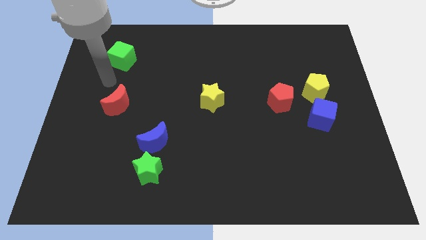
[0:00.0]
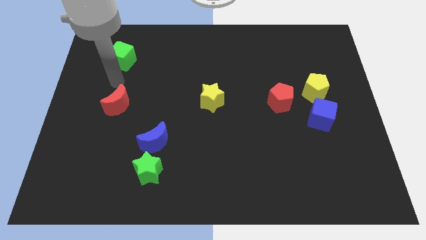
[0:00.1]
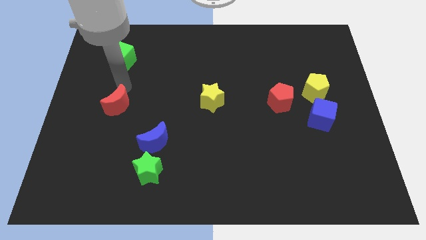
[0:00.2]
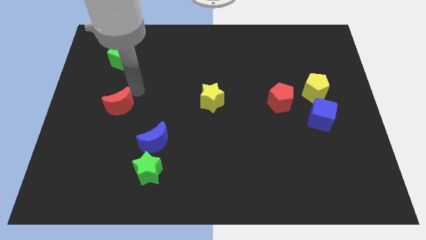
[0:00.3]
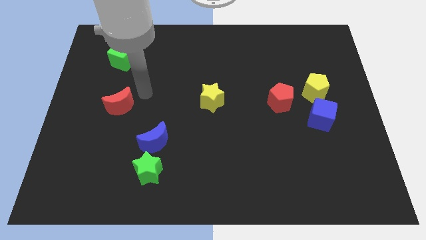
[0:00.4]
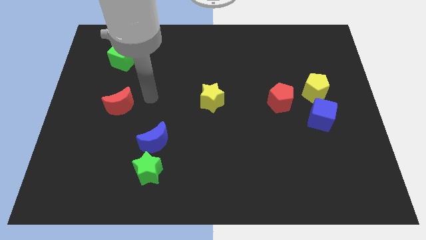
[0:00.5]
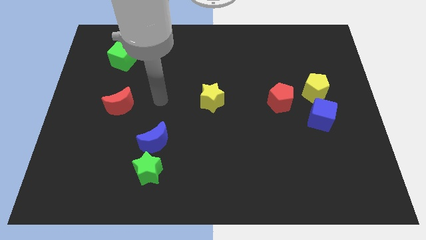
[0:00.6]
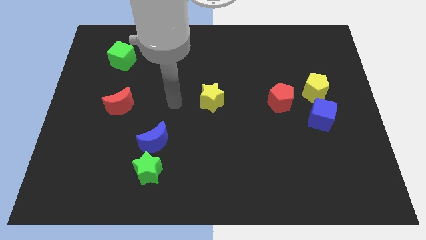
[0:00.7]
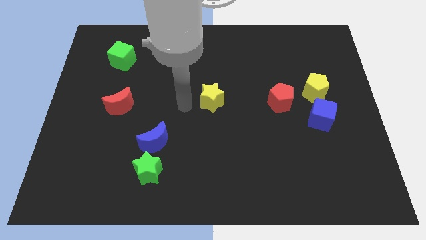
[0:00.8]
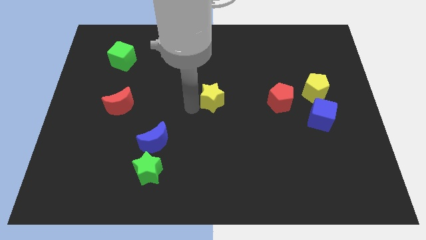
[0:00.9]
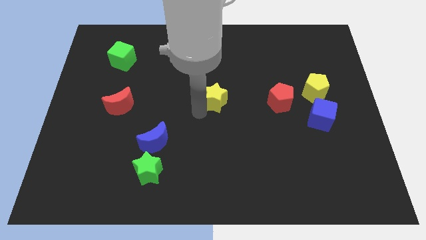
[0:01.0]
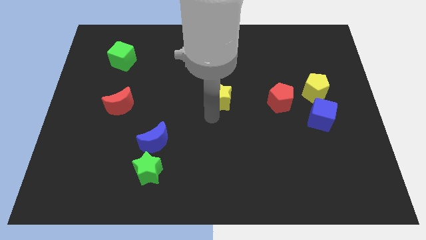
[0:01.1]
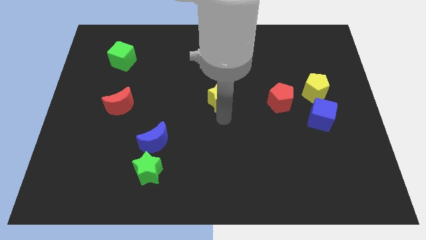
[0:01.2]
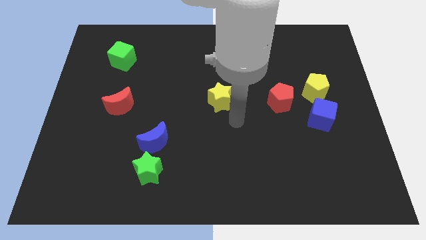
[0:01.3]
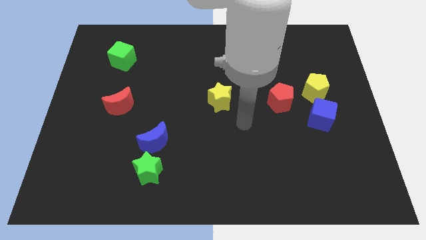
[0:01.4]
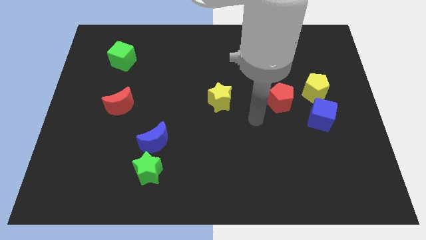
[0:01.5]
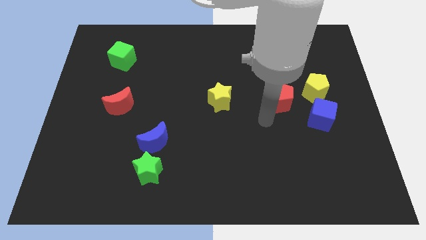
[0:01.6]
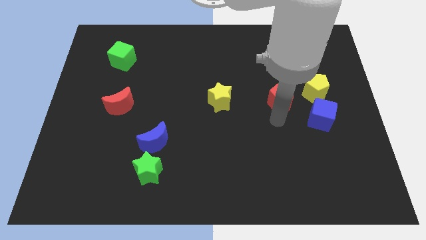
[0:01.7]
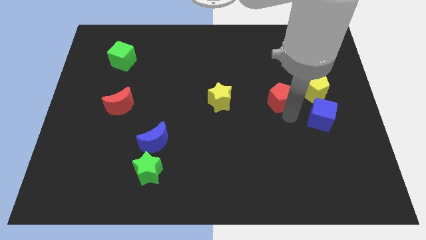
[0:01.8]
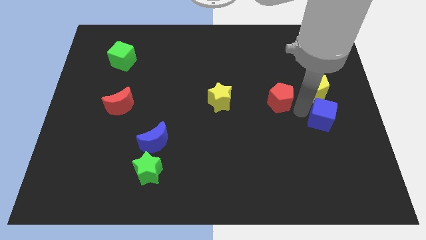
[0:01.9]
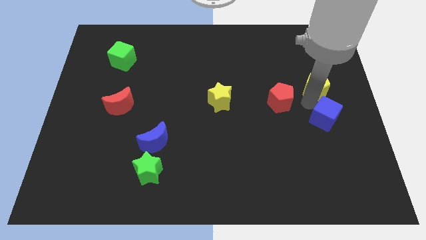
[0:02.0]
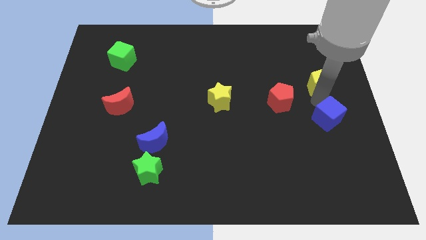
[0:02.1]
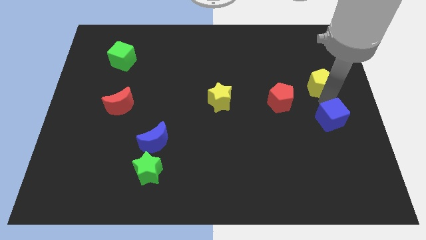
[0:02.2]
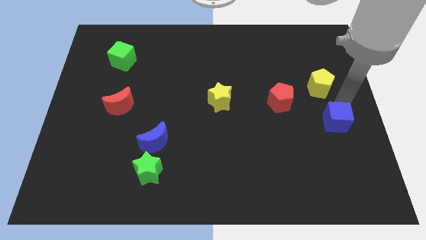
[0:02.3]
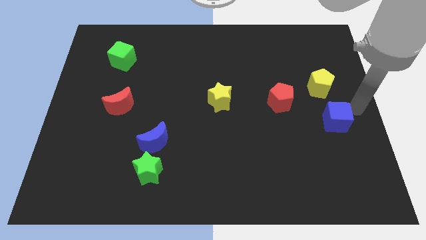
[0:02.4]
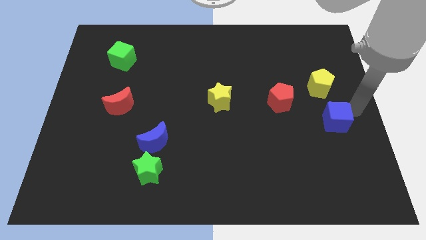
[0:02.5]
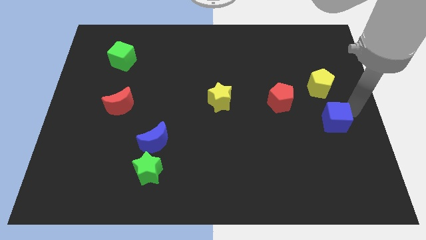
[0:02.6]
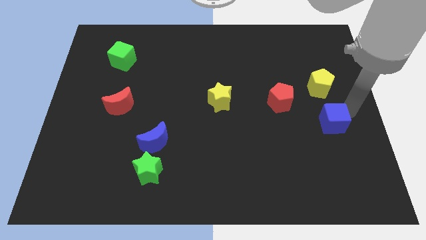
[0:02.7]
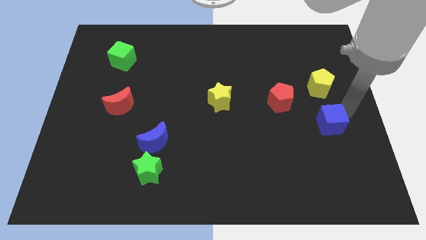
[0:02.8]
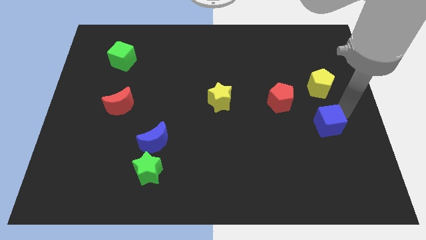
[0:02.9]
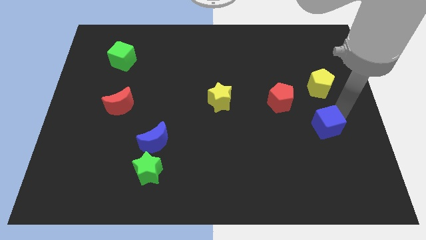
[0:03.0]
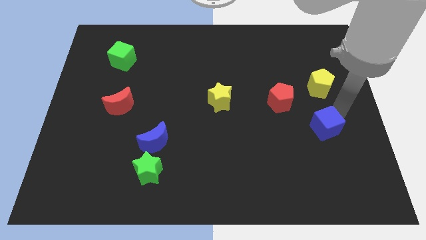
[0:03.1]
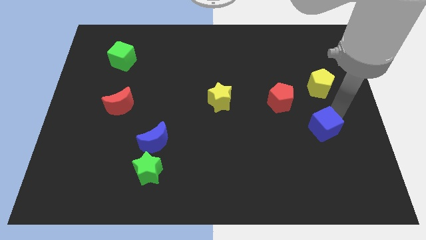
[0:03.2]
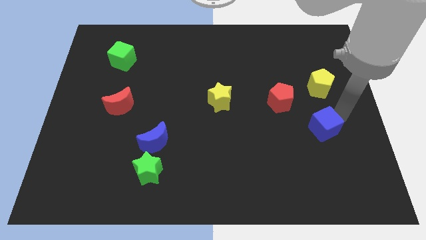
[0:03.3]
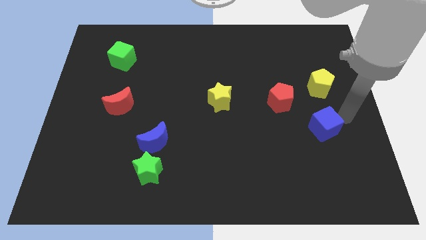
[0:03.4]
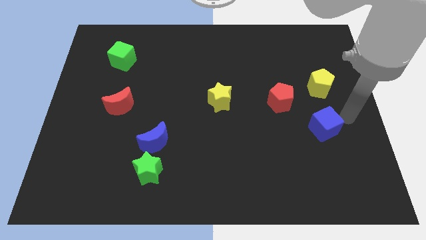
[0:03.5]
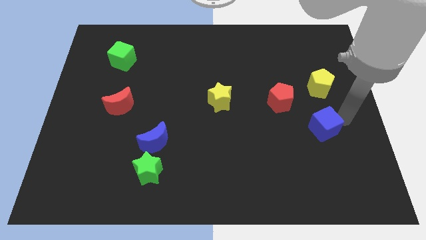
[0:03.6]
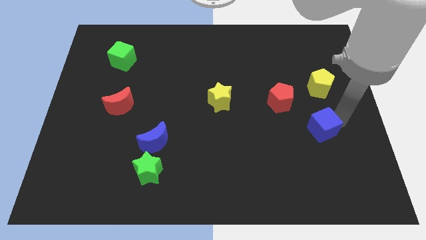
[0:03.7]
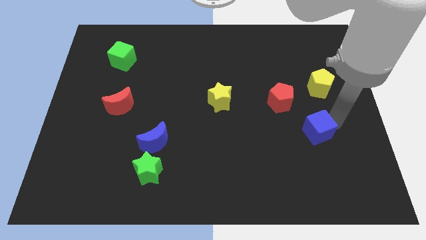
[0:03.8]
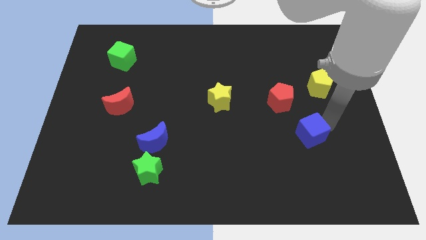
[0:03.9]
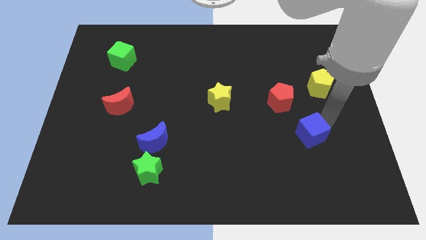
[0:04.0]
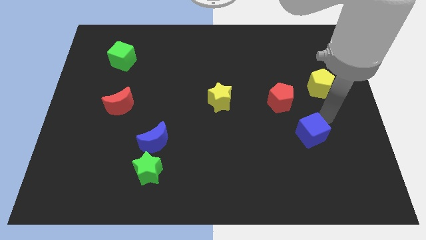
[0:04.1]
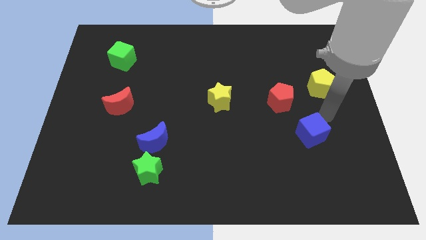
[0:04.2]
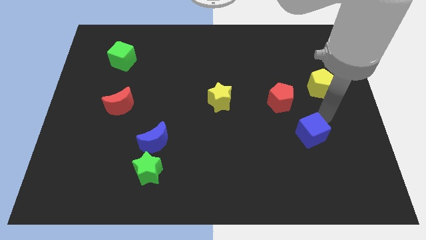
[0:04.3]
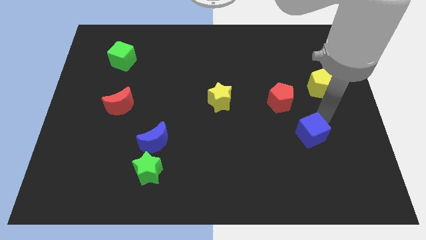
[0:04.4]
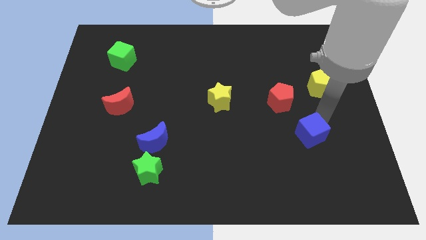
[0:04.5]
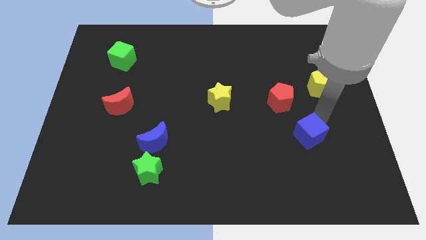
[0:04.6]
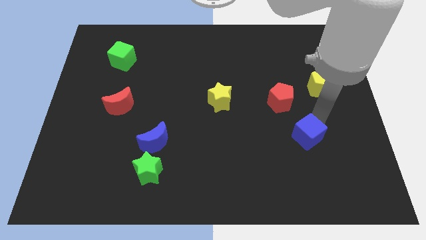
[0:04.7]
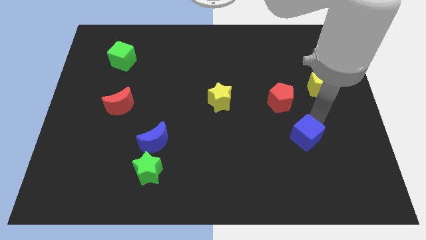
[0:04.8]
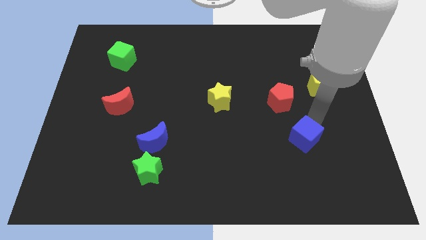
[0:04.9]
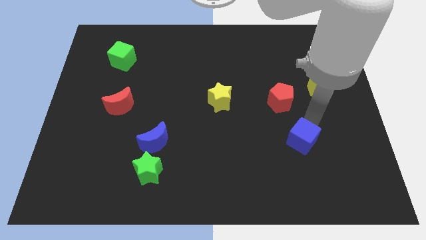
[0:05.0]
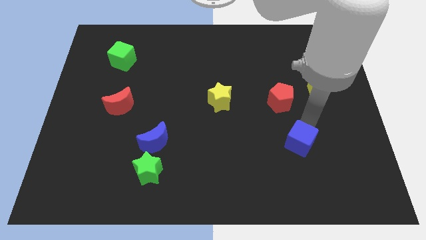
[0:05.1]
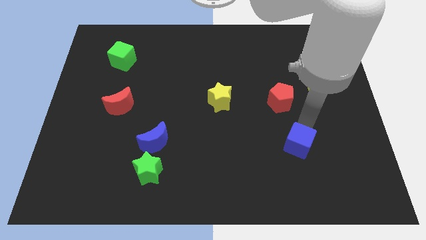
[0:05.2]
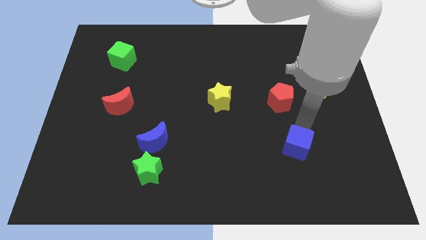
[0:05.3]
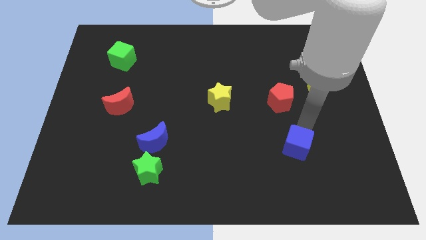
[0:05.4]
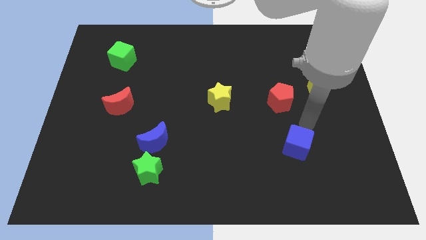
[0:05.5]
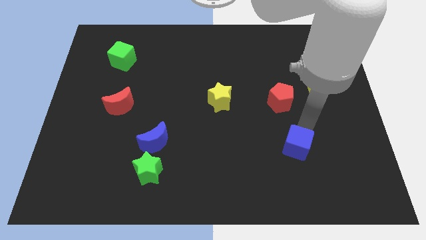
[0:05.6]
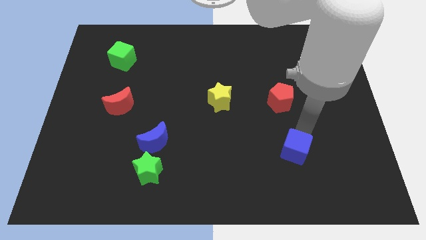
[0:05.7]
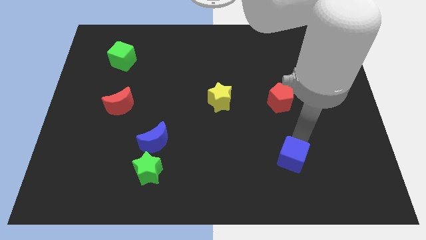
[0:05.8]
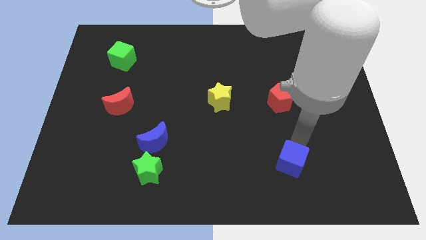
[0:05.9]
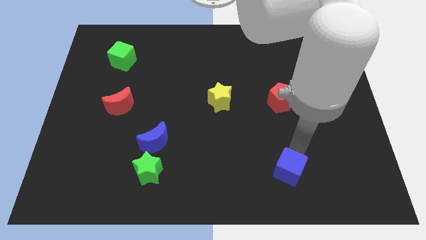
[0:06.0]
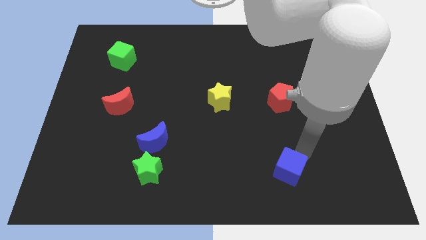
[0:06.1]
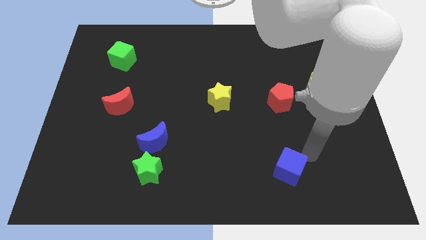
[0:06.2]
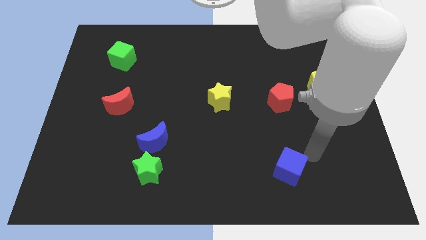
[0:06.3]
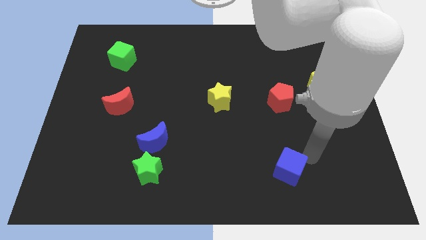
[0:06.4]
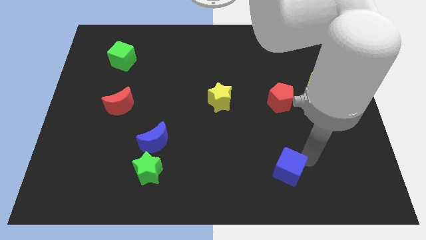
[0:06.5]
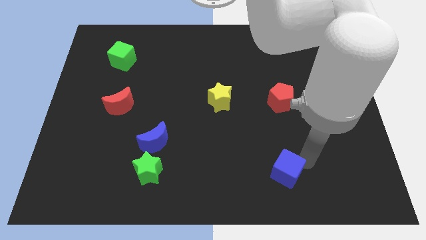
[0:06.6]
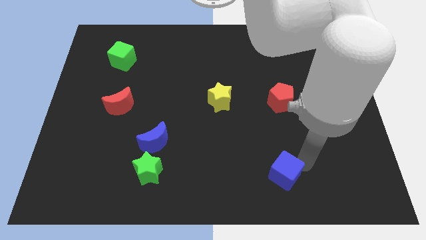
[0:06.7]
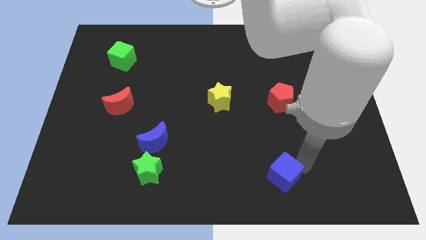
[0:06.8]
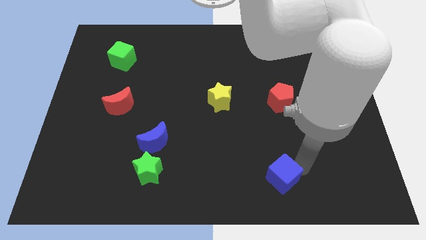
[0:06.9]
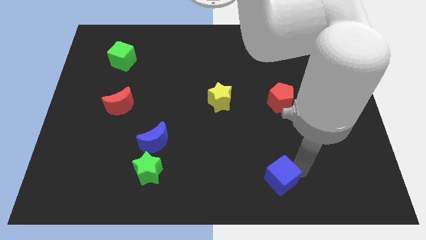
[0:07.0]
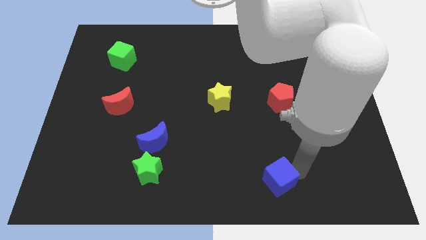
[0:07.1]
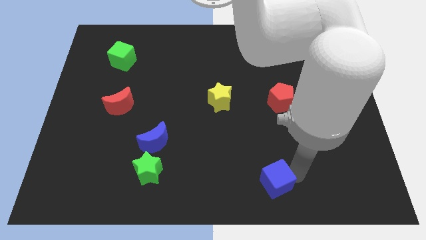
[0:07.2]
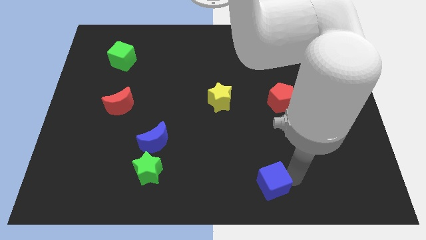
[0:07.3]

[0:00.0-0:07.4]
push the blue cube to the bottom

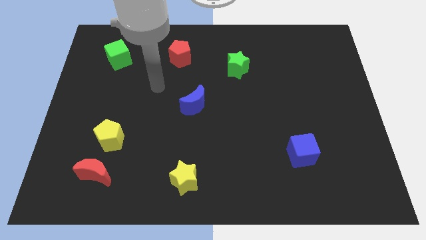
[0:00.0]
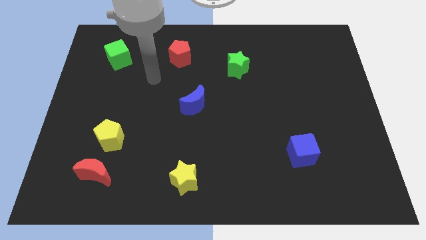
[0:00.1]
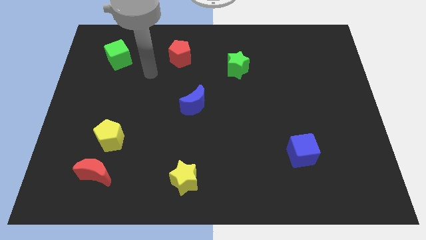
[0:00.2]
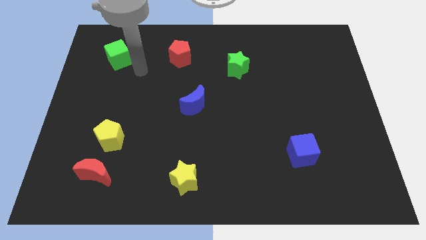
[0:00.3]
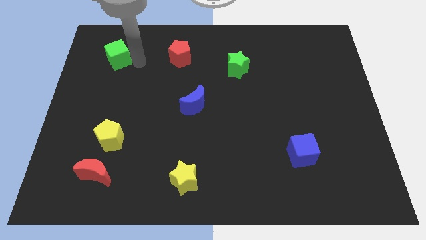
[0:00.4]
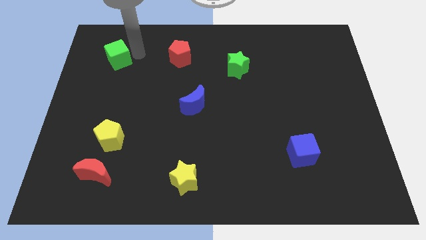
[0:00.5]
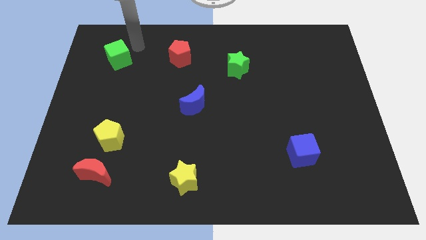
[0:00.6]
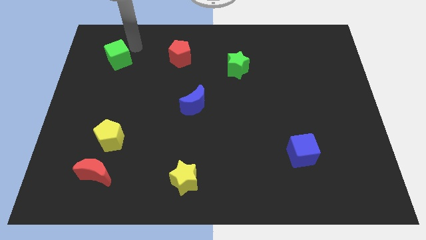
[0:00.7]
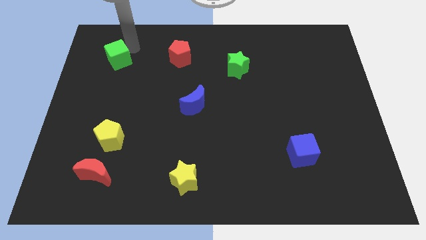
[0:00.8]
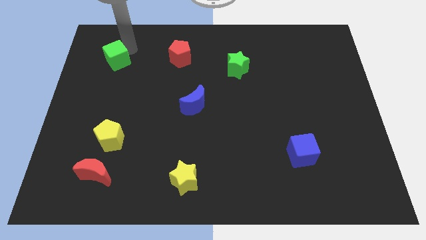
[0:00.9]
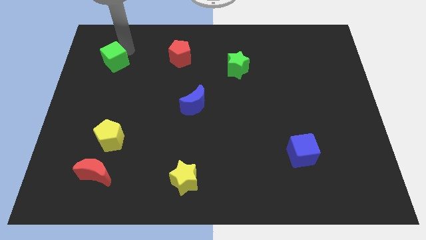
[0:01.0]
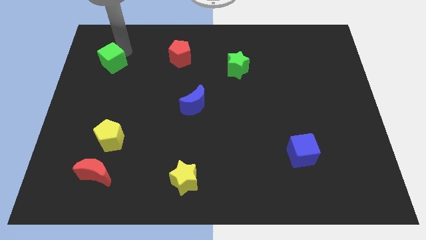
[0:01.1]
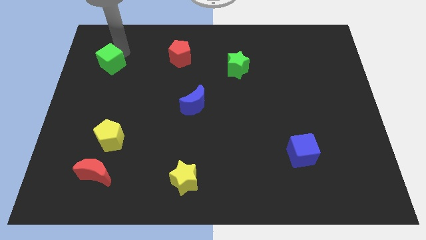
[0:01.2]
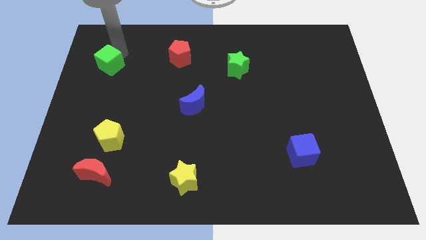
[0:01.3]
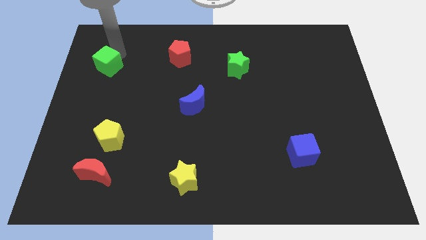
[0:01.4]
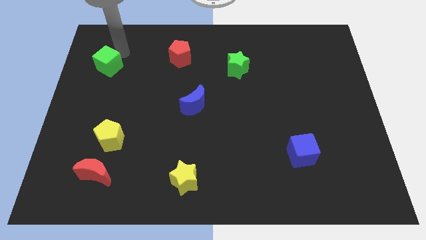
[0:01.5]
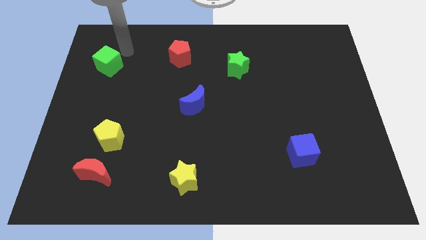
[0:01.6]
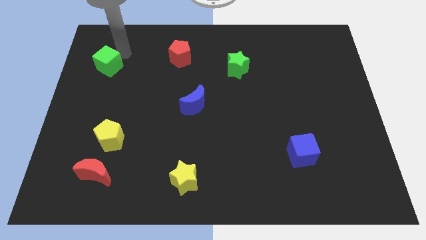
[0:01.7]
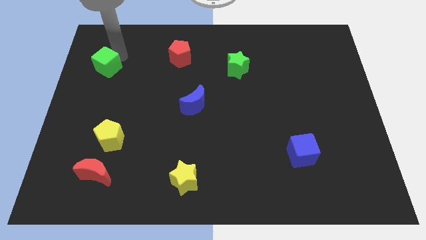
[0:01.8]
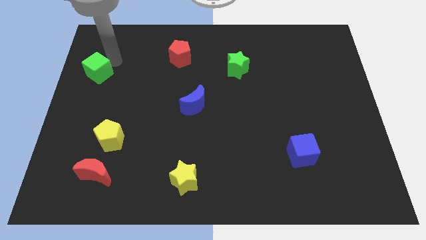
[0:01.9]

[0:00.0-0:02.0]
push the green cube to the center left
